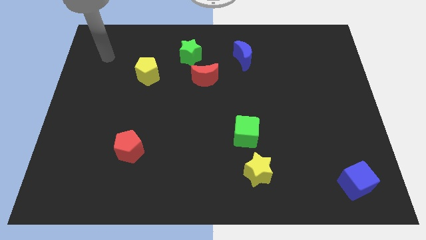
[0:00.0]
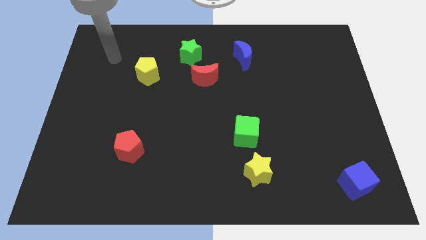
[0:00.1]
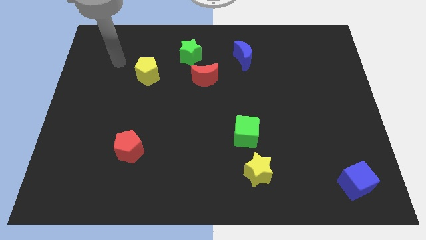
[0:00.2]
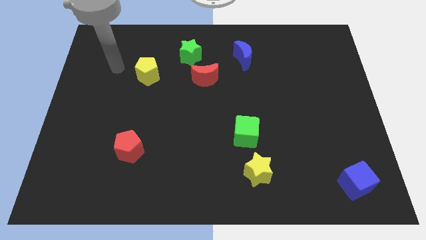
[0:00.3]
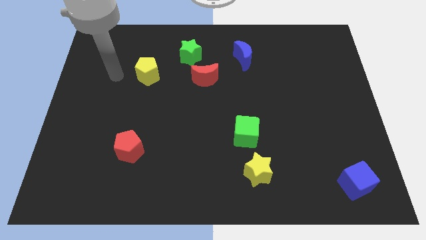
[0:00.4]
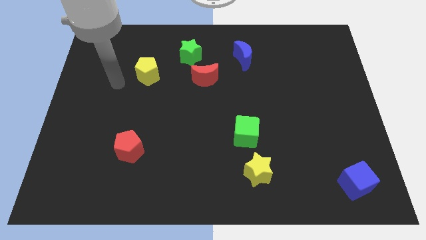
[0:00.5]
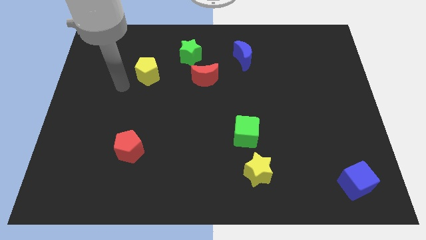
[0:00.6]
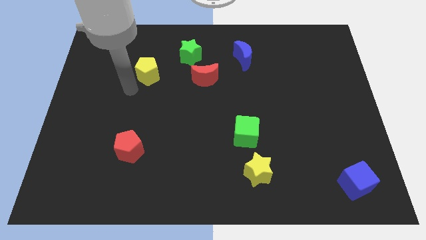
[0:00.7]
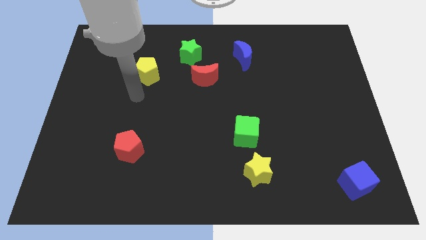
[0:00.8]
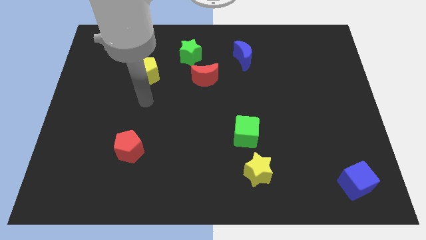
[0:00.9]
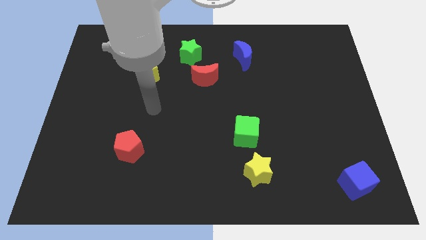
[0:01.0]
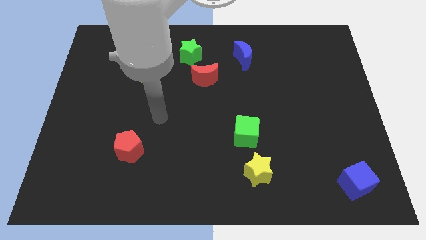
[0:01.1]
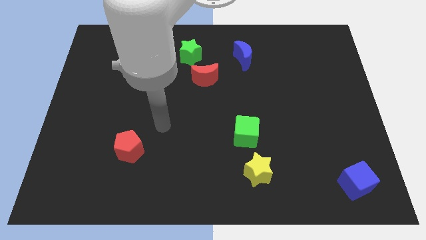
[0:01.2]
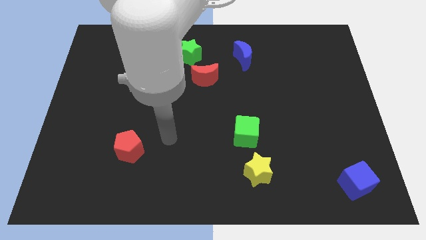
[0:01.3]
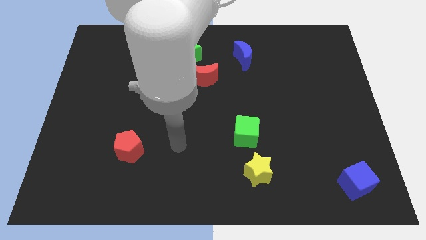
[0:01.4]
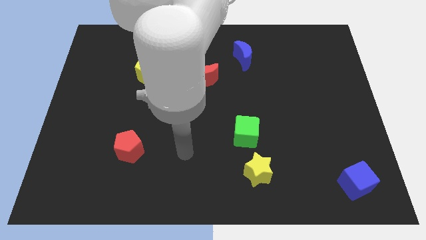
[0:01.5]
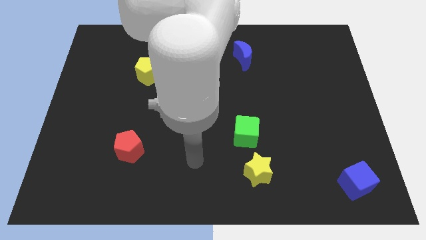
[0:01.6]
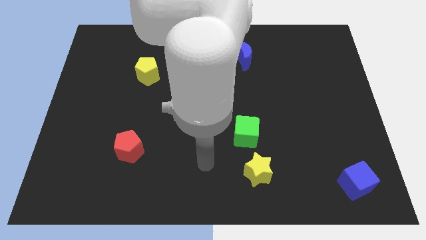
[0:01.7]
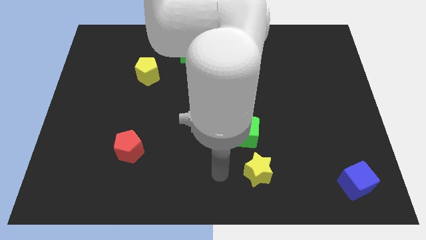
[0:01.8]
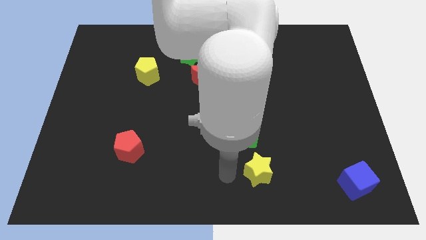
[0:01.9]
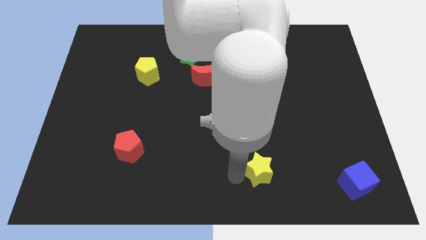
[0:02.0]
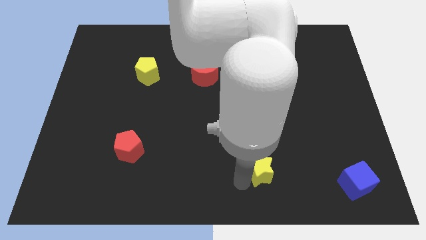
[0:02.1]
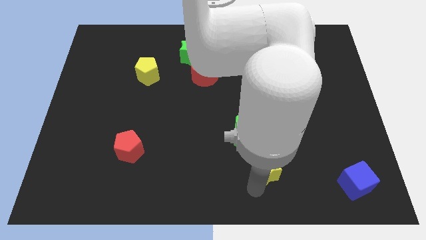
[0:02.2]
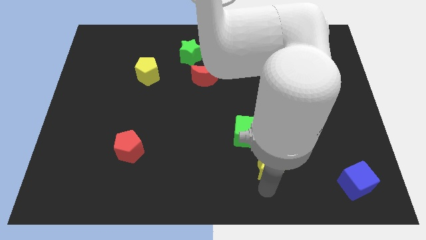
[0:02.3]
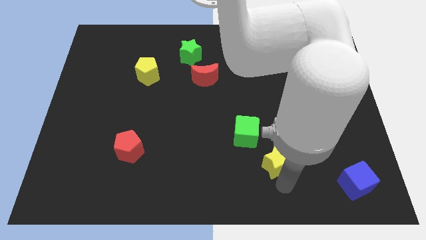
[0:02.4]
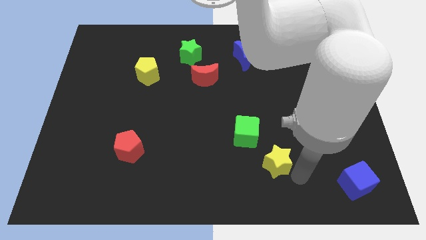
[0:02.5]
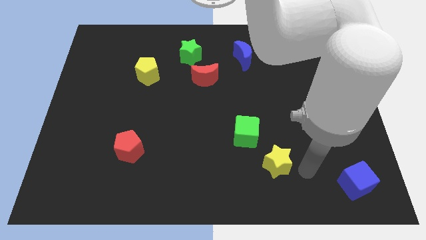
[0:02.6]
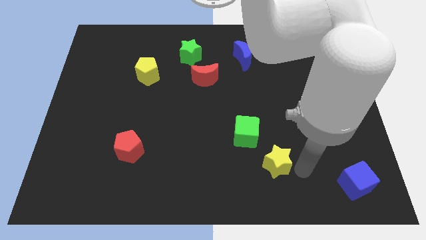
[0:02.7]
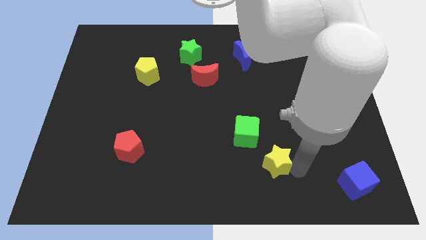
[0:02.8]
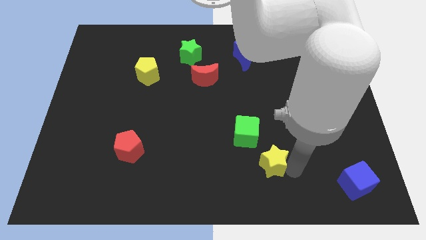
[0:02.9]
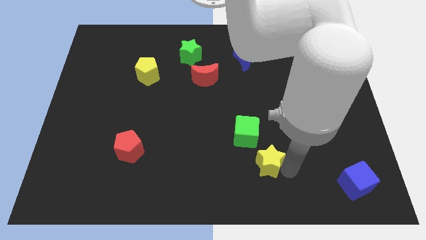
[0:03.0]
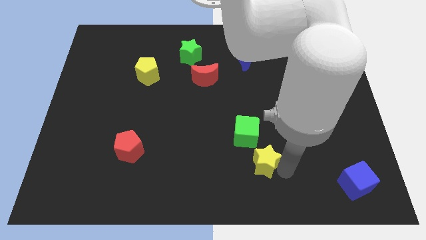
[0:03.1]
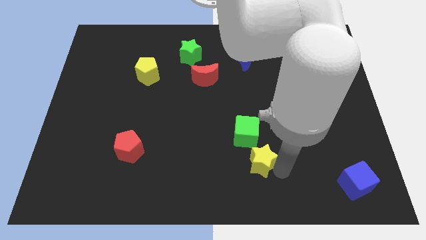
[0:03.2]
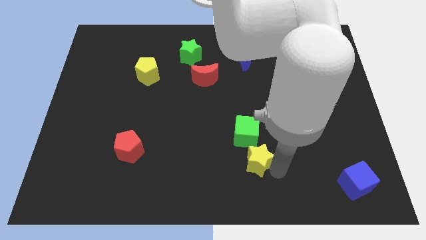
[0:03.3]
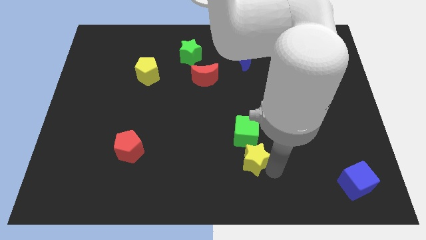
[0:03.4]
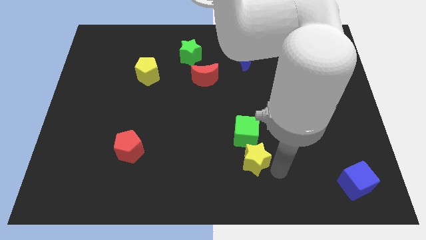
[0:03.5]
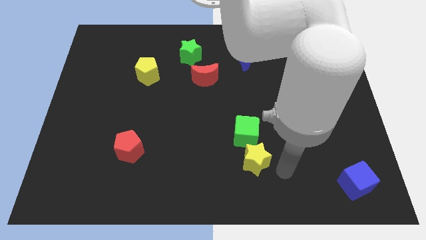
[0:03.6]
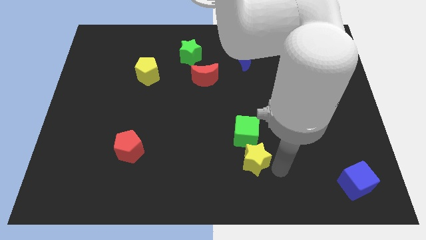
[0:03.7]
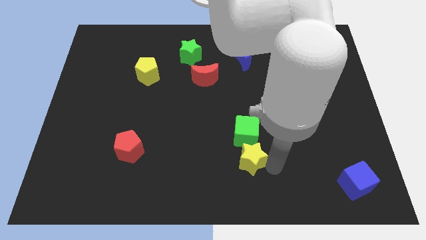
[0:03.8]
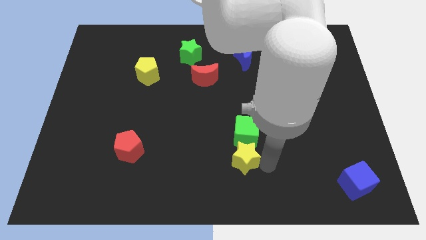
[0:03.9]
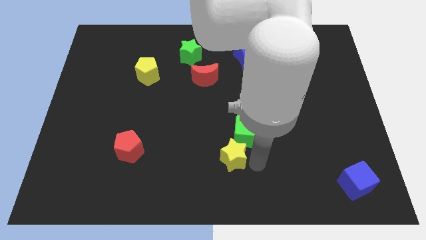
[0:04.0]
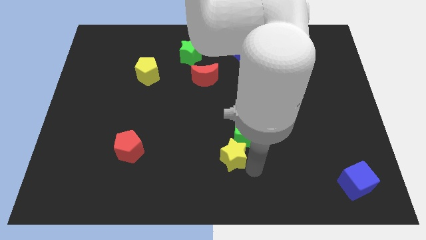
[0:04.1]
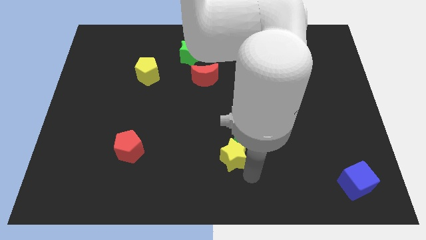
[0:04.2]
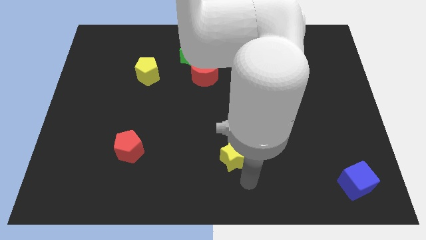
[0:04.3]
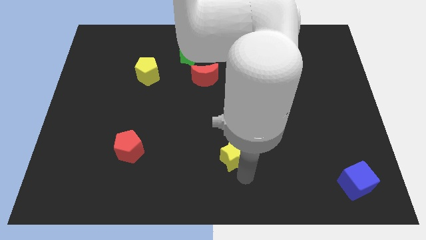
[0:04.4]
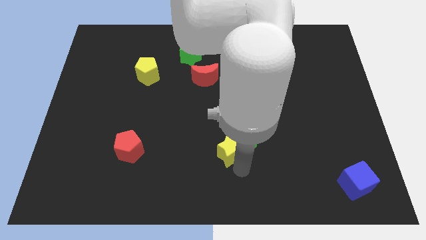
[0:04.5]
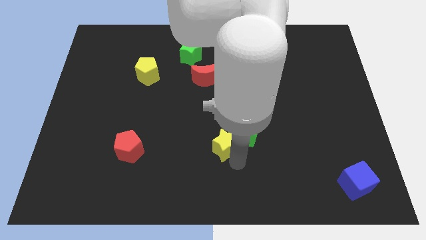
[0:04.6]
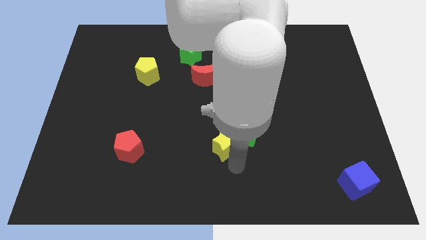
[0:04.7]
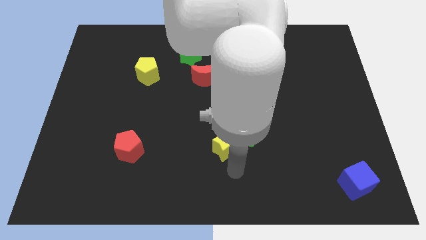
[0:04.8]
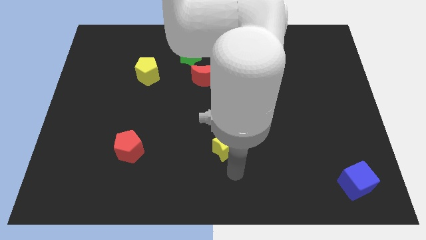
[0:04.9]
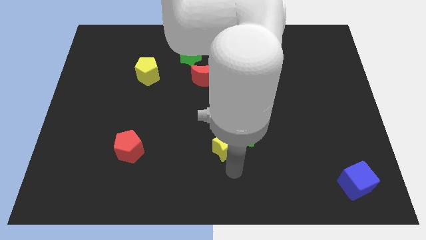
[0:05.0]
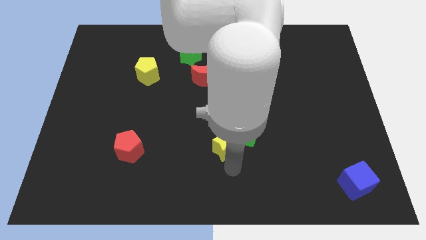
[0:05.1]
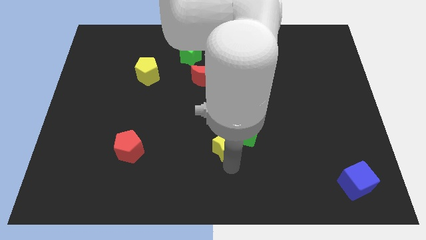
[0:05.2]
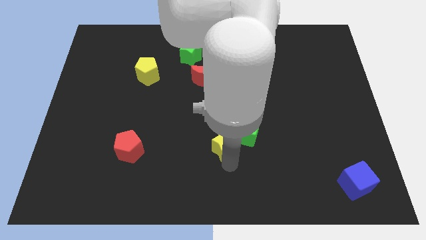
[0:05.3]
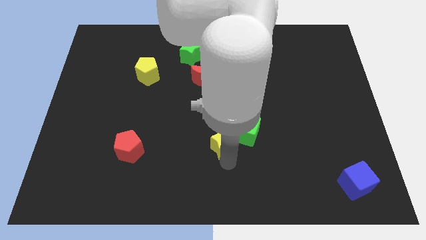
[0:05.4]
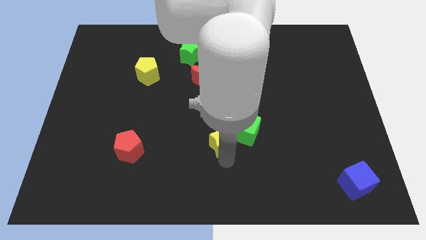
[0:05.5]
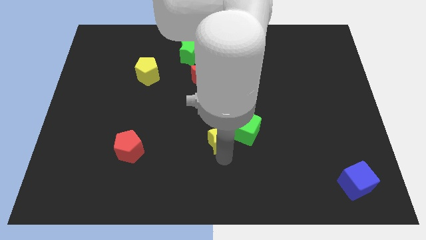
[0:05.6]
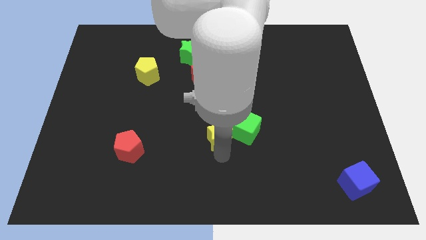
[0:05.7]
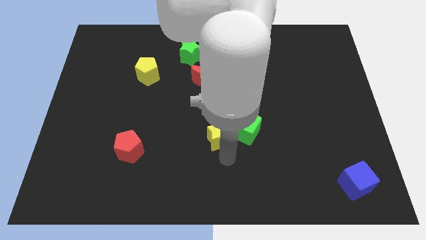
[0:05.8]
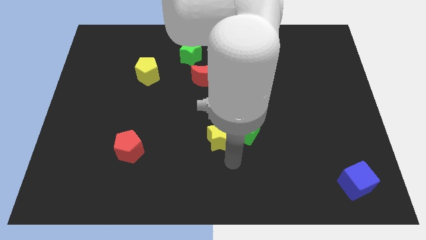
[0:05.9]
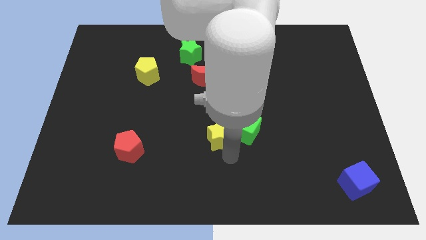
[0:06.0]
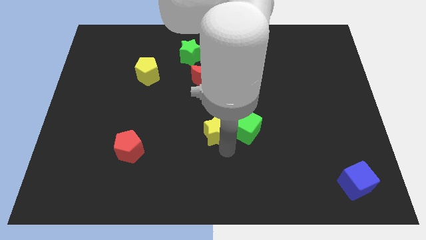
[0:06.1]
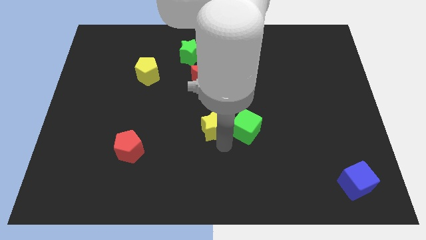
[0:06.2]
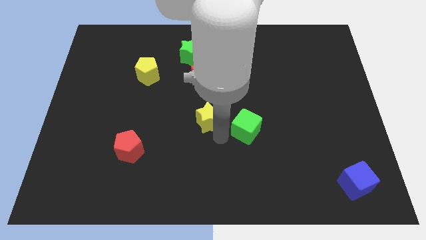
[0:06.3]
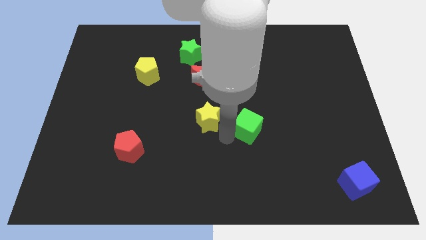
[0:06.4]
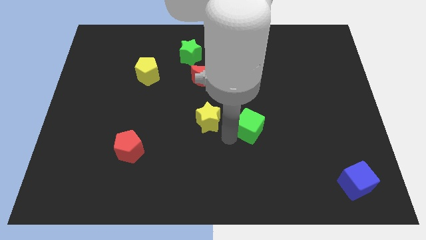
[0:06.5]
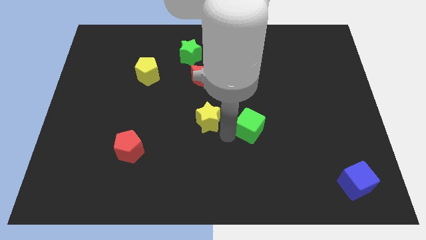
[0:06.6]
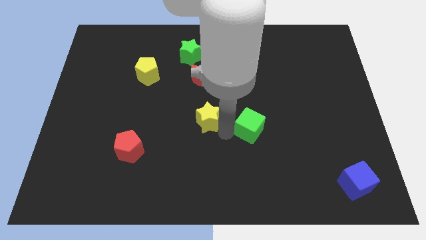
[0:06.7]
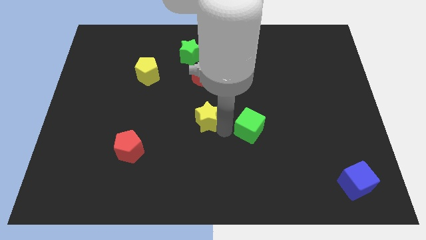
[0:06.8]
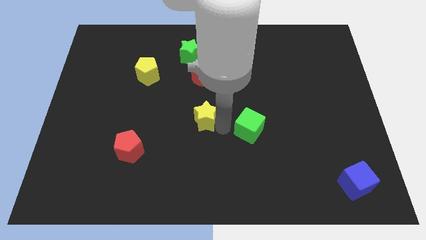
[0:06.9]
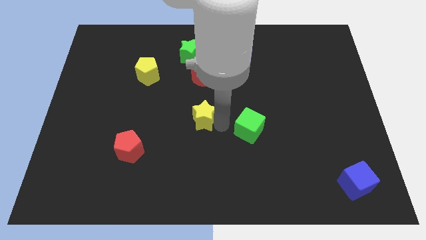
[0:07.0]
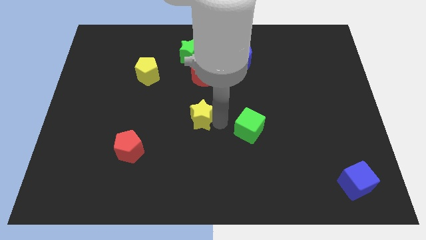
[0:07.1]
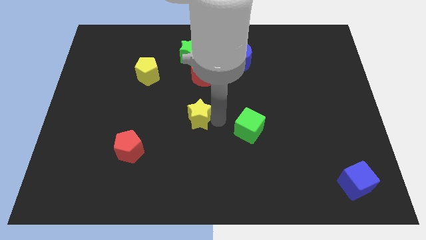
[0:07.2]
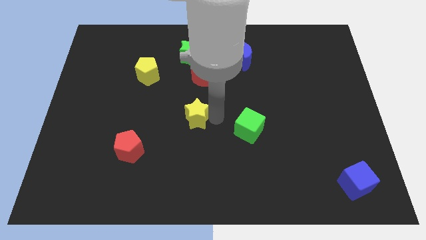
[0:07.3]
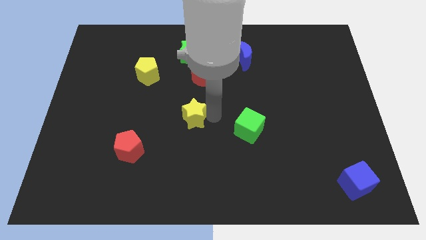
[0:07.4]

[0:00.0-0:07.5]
move the yellow star up and left

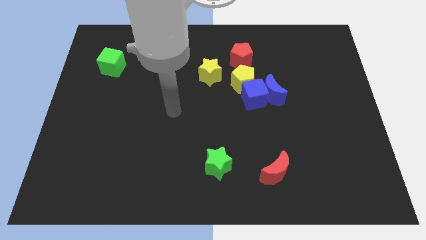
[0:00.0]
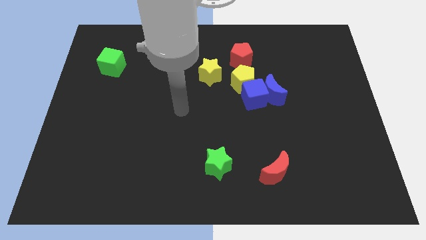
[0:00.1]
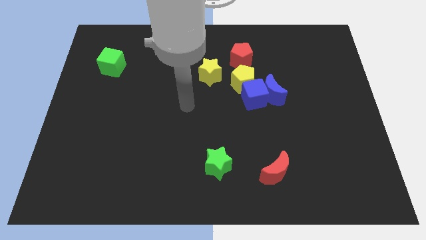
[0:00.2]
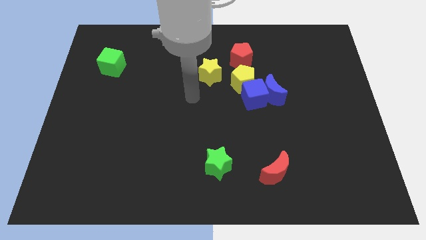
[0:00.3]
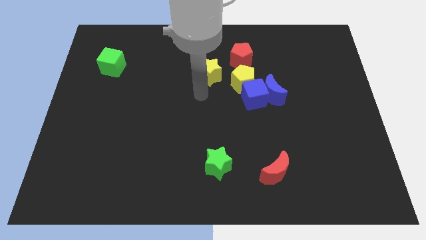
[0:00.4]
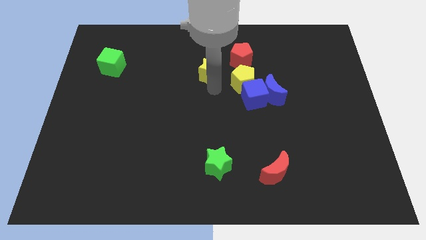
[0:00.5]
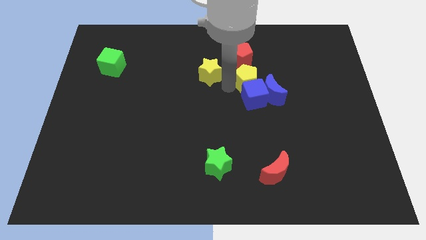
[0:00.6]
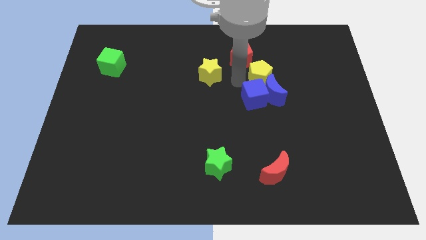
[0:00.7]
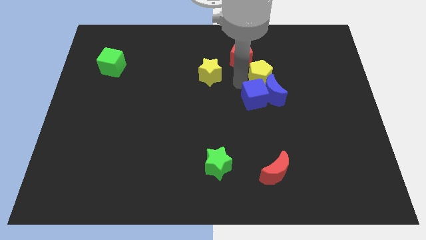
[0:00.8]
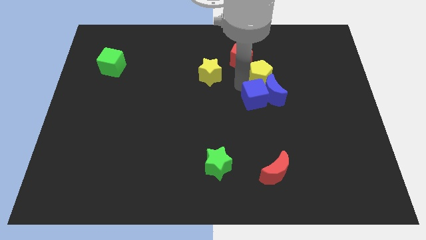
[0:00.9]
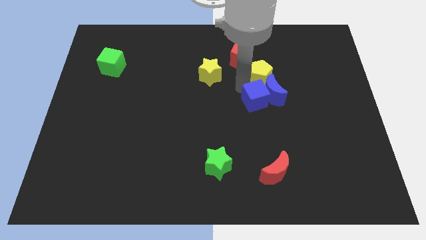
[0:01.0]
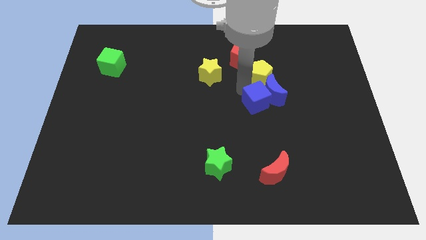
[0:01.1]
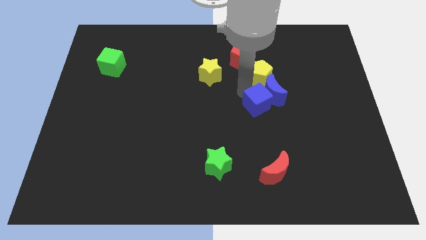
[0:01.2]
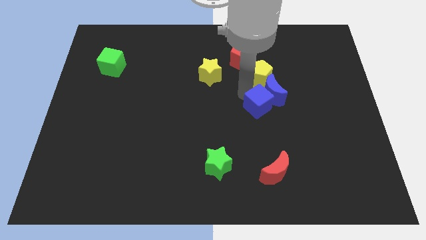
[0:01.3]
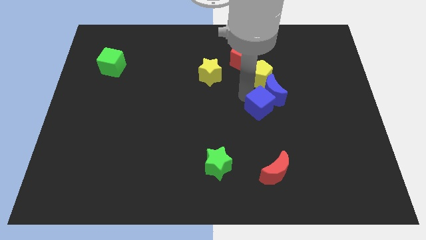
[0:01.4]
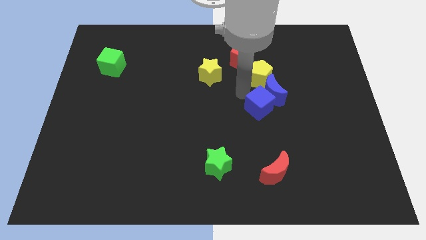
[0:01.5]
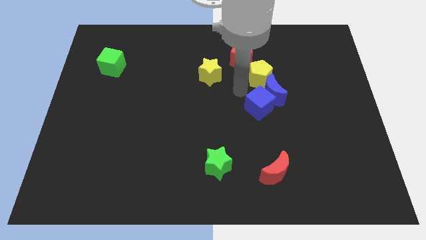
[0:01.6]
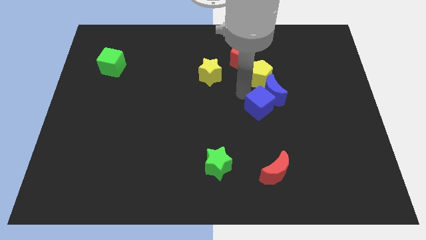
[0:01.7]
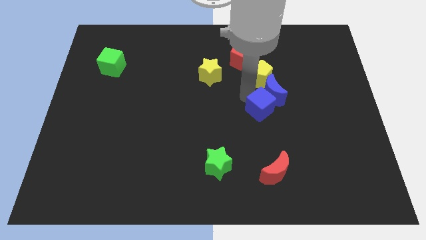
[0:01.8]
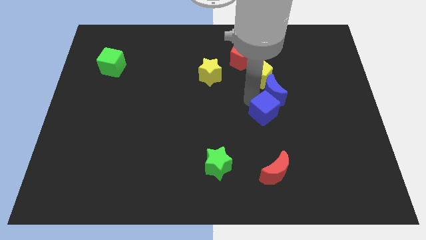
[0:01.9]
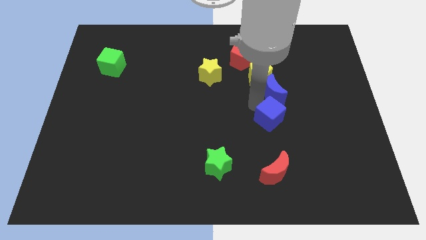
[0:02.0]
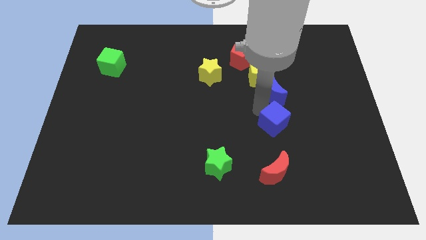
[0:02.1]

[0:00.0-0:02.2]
slightly slide the blue cube diagonally downwards and to the right
